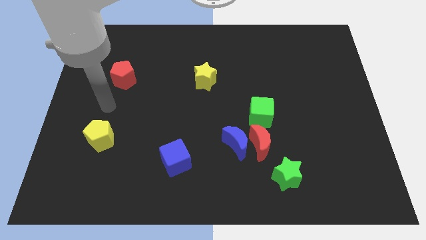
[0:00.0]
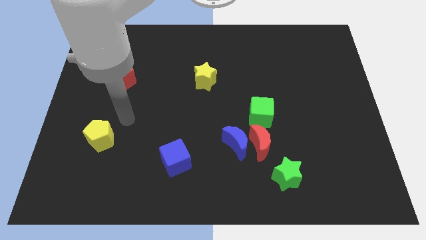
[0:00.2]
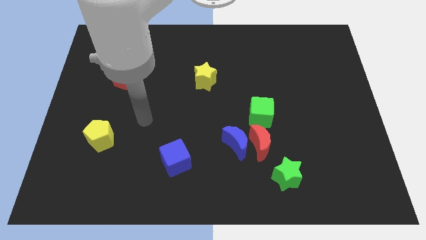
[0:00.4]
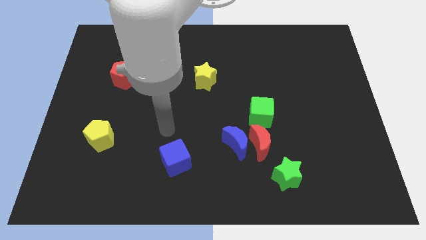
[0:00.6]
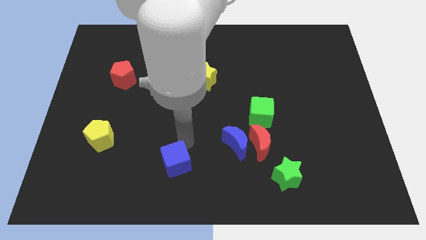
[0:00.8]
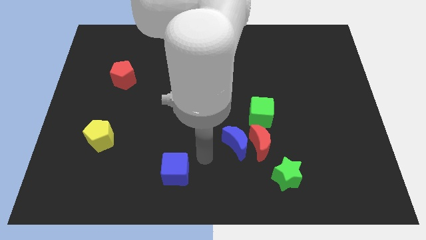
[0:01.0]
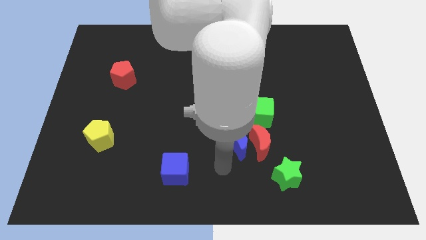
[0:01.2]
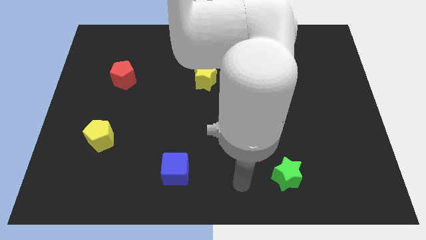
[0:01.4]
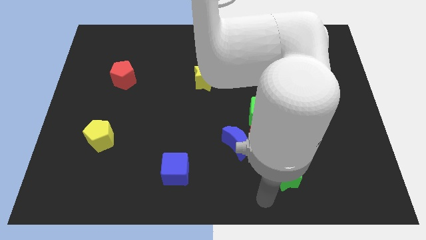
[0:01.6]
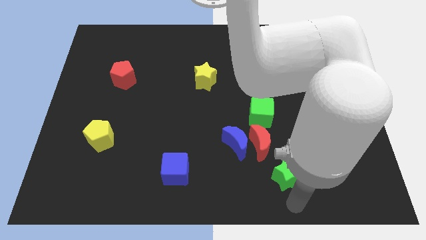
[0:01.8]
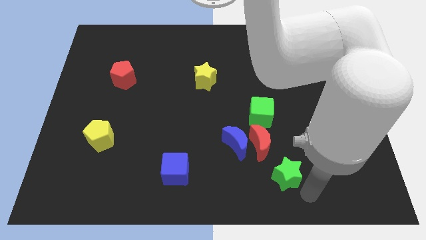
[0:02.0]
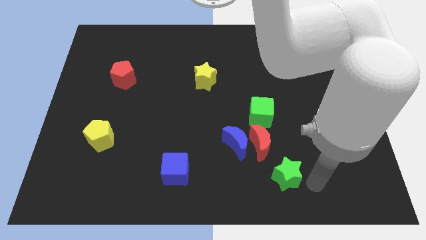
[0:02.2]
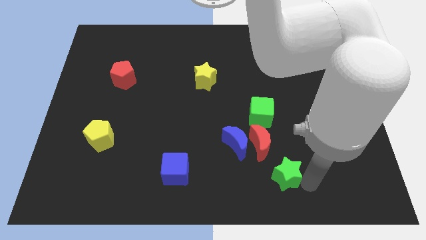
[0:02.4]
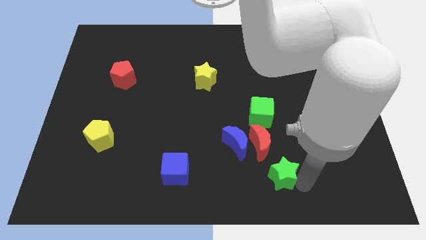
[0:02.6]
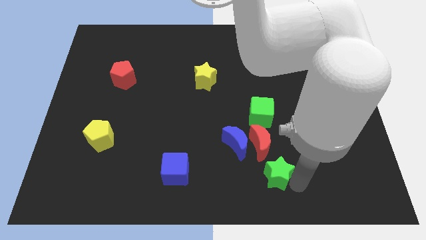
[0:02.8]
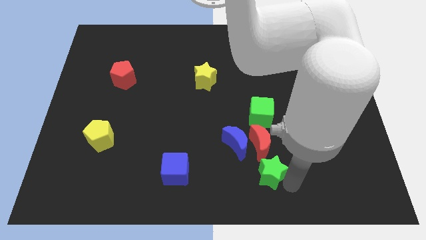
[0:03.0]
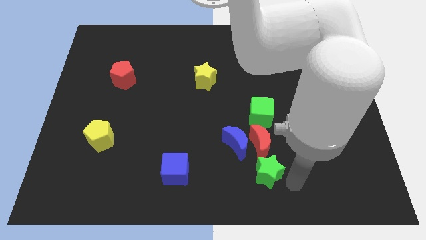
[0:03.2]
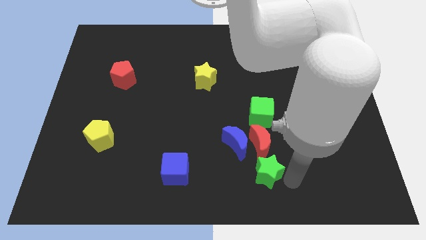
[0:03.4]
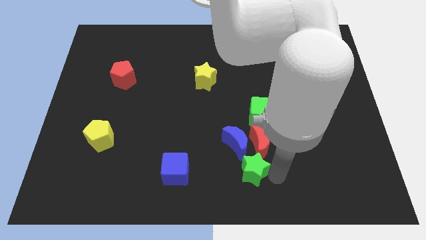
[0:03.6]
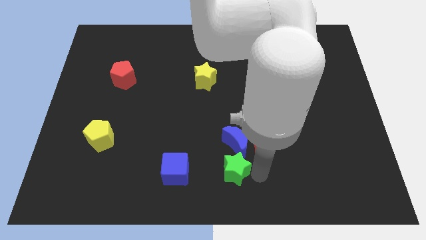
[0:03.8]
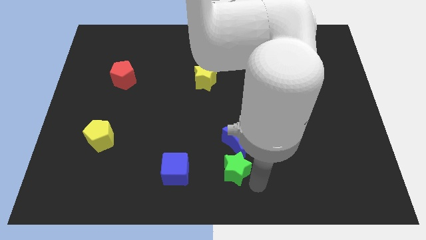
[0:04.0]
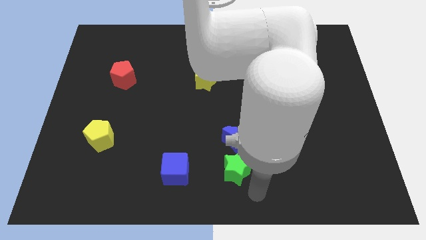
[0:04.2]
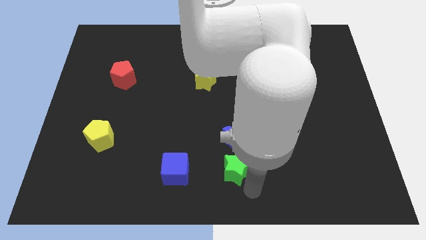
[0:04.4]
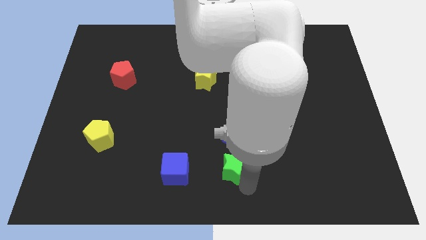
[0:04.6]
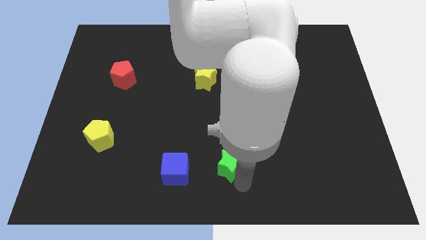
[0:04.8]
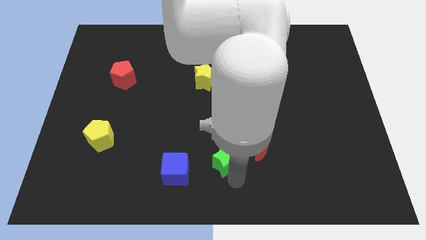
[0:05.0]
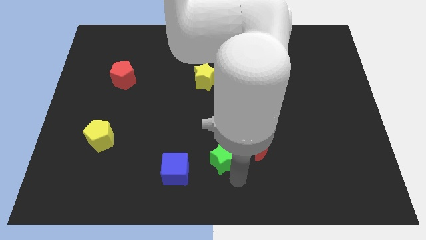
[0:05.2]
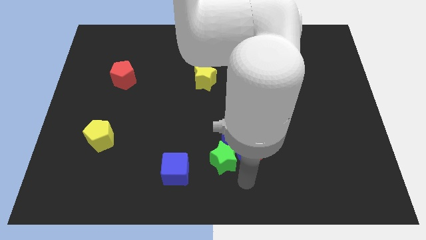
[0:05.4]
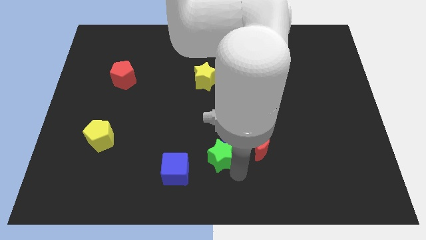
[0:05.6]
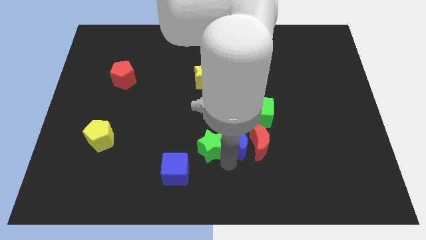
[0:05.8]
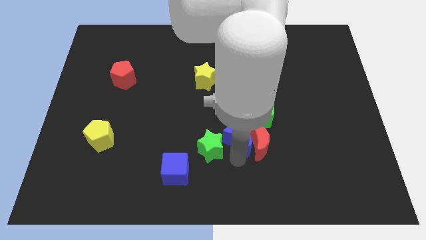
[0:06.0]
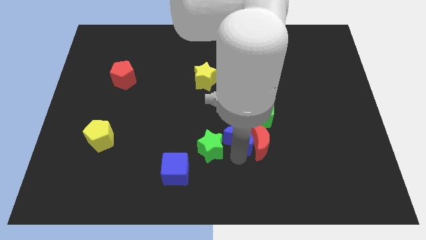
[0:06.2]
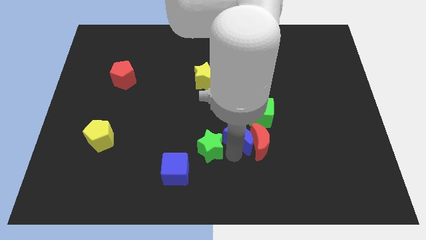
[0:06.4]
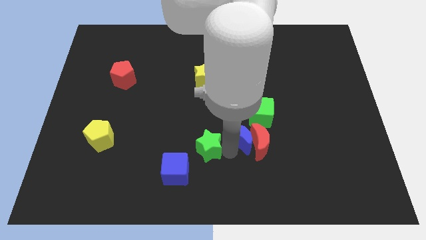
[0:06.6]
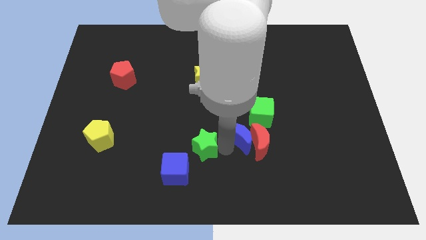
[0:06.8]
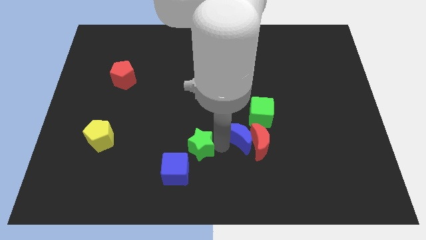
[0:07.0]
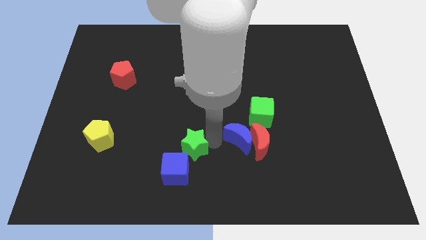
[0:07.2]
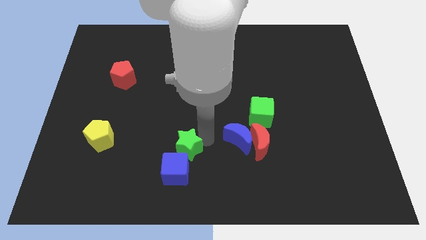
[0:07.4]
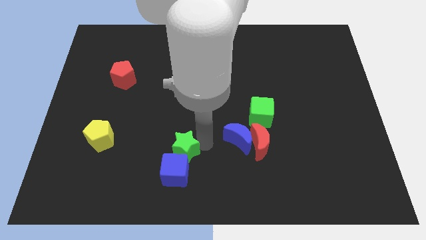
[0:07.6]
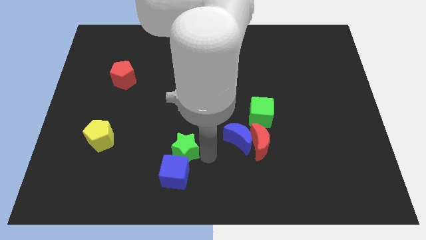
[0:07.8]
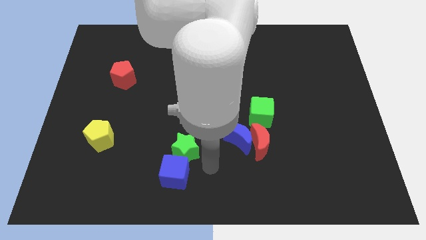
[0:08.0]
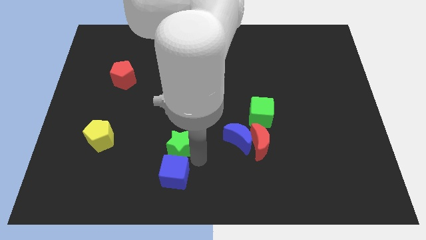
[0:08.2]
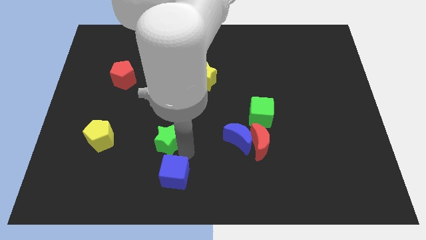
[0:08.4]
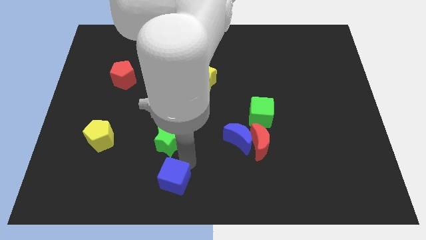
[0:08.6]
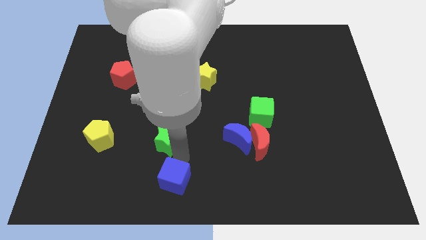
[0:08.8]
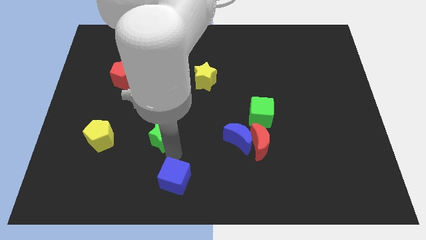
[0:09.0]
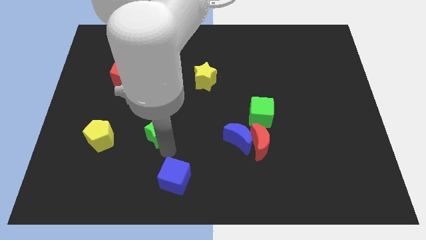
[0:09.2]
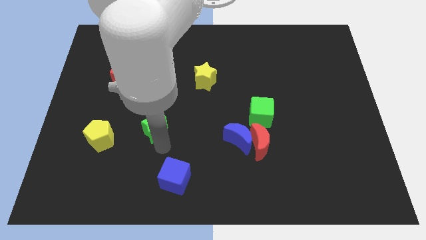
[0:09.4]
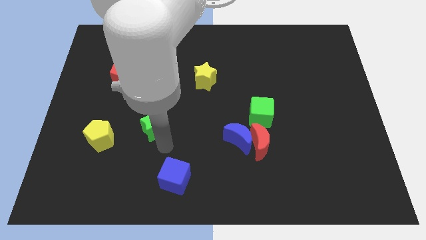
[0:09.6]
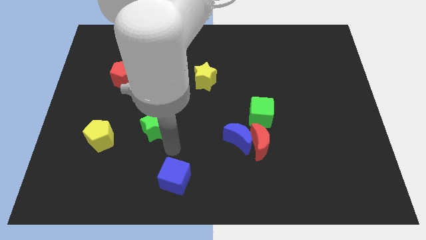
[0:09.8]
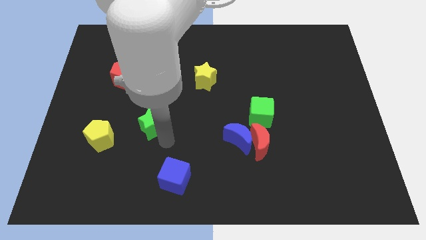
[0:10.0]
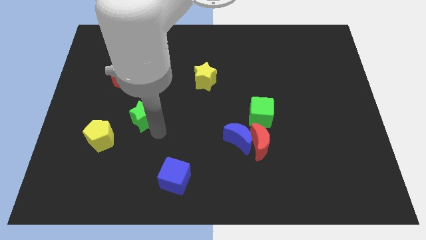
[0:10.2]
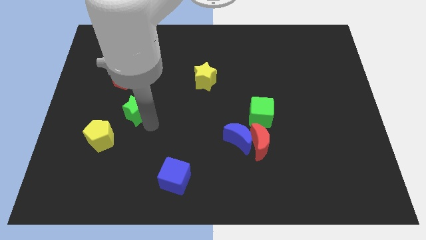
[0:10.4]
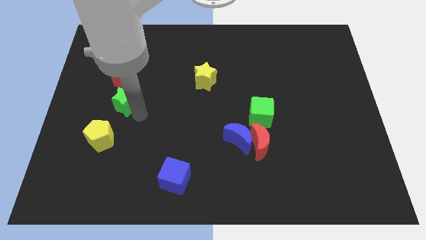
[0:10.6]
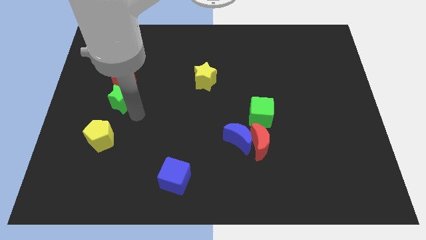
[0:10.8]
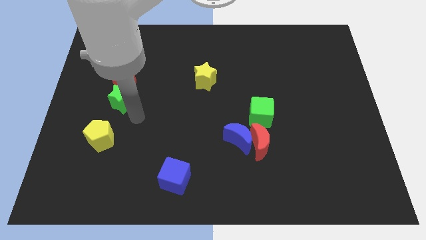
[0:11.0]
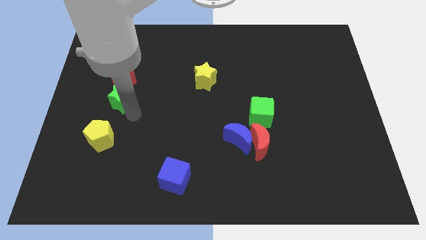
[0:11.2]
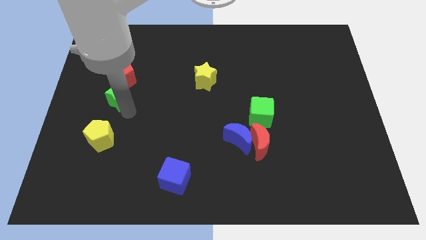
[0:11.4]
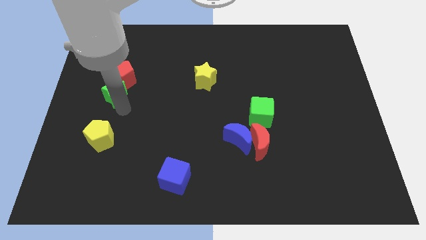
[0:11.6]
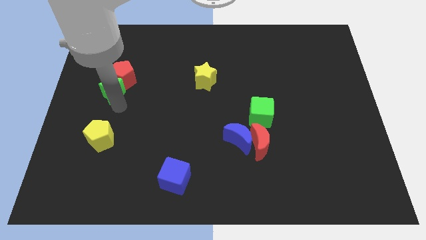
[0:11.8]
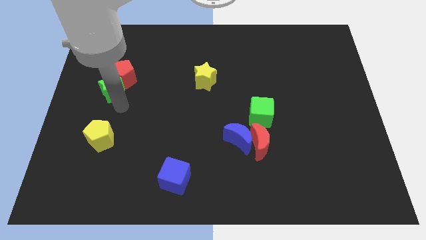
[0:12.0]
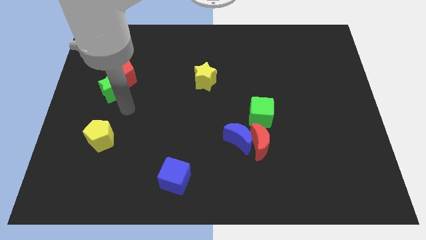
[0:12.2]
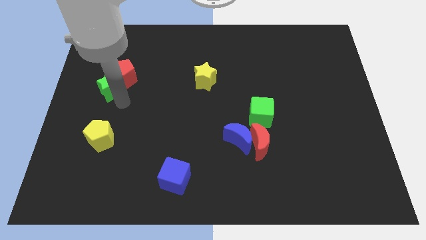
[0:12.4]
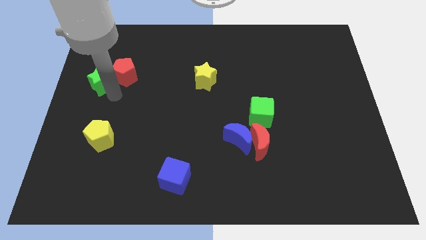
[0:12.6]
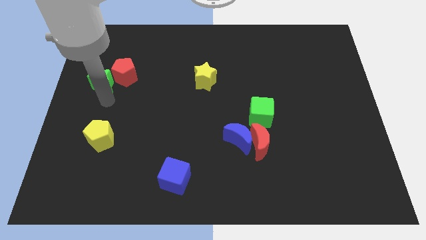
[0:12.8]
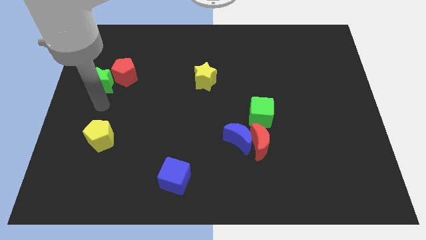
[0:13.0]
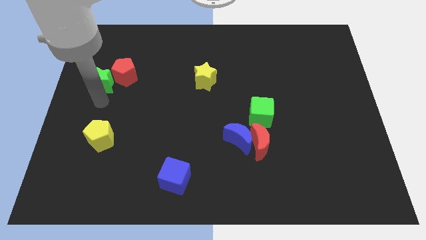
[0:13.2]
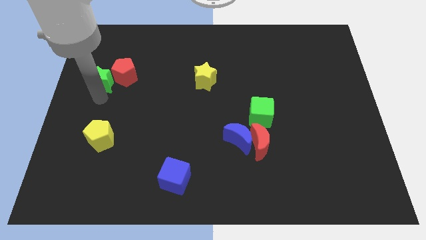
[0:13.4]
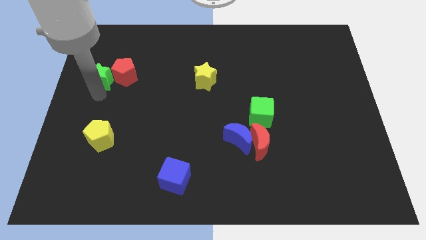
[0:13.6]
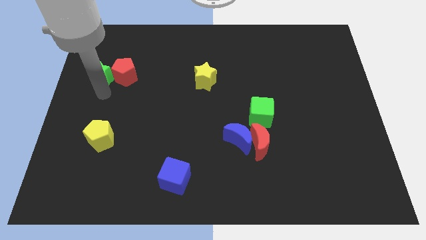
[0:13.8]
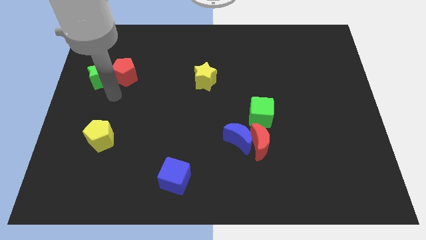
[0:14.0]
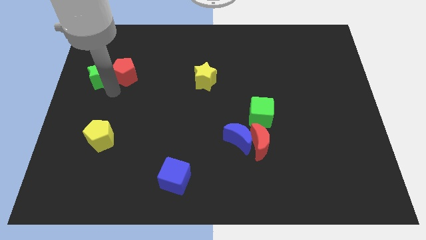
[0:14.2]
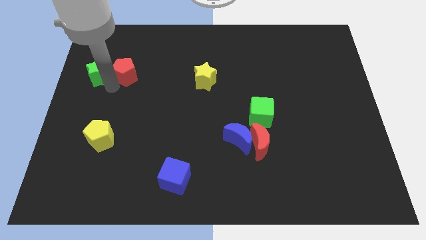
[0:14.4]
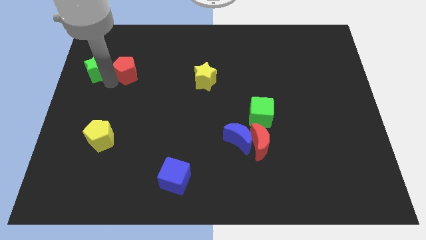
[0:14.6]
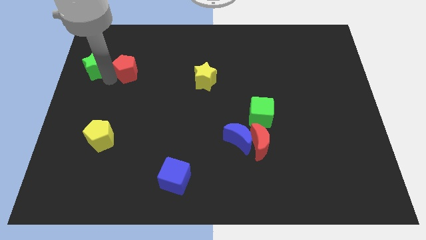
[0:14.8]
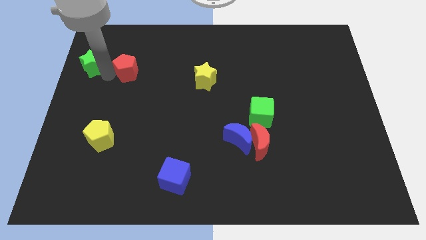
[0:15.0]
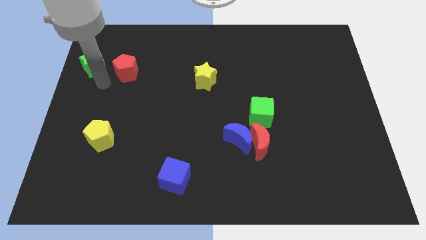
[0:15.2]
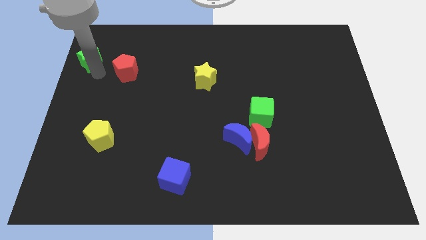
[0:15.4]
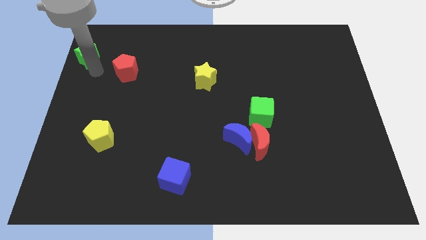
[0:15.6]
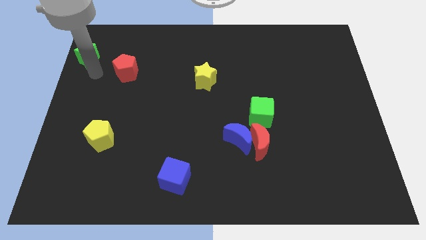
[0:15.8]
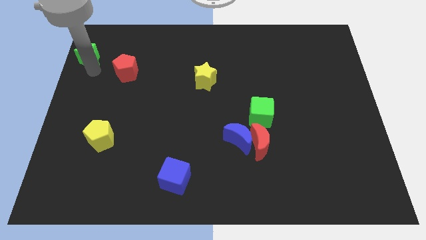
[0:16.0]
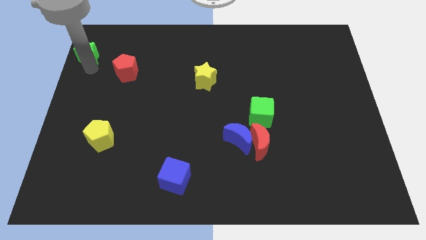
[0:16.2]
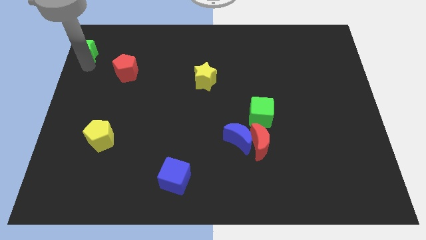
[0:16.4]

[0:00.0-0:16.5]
put the green star to the top left corner
